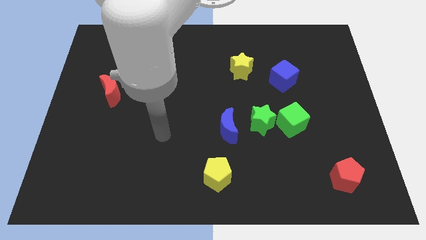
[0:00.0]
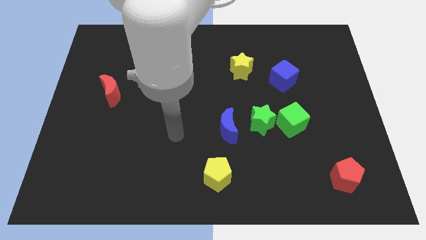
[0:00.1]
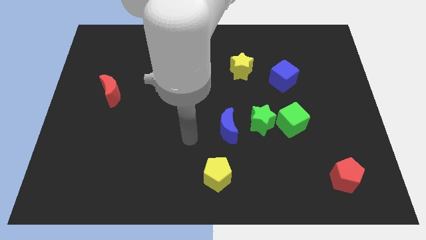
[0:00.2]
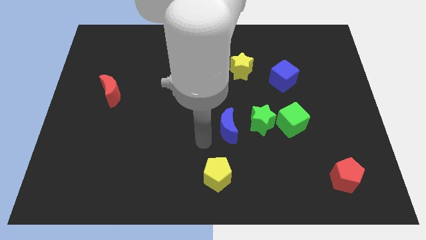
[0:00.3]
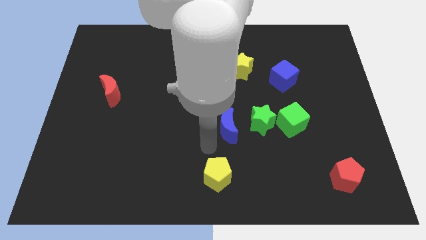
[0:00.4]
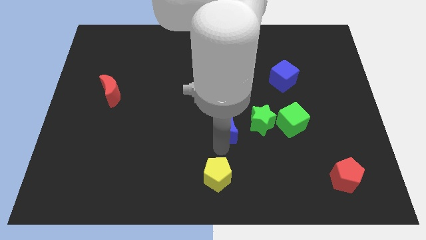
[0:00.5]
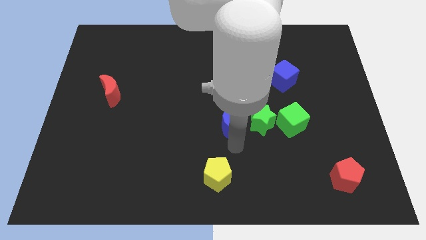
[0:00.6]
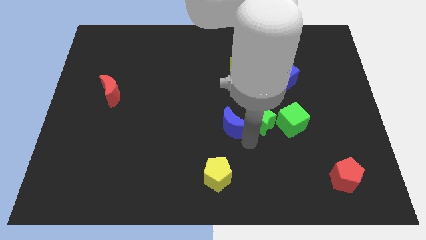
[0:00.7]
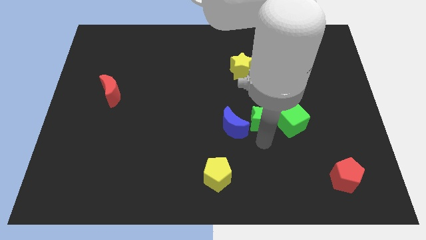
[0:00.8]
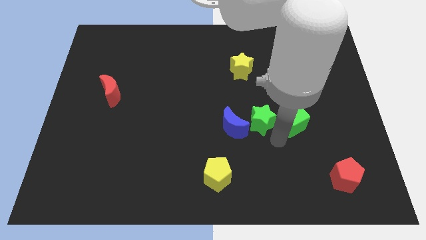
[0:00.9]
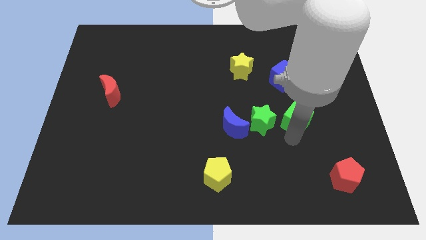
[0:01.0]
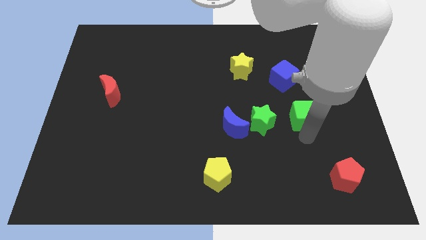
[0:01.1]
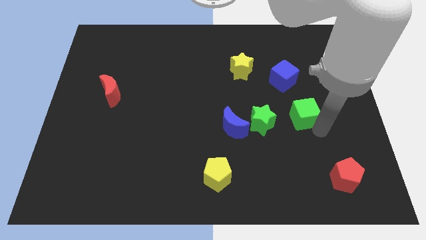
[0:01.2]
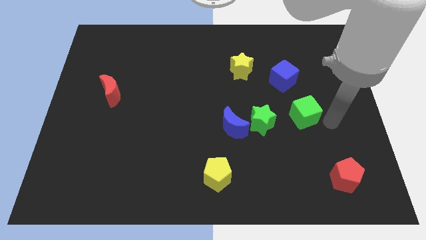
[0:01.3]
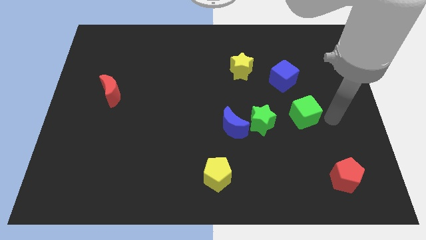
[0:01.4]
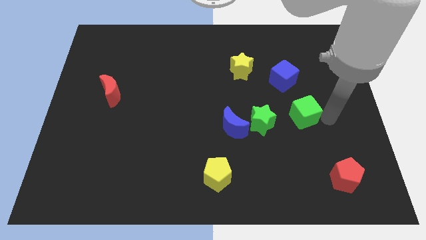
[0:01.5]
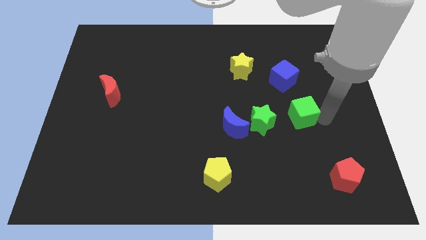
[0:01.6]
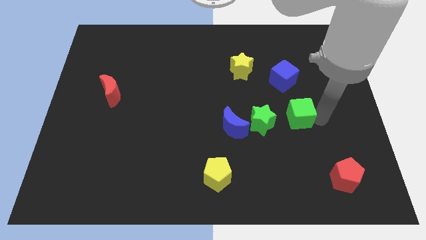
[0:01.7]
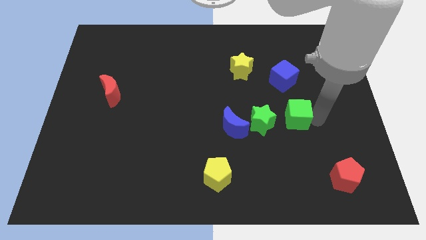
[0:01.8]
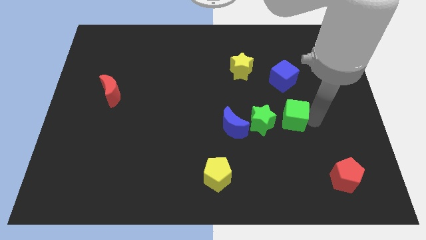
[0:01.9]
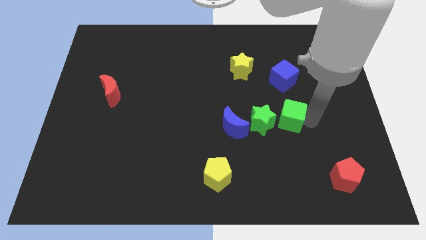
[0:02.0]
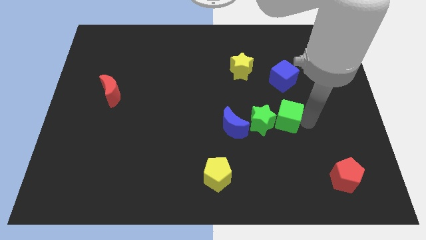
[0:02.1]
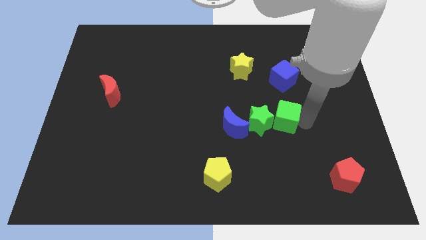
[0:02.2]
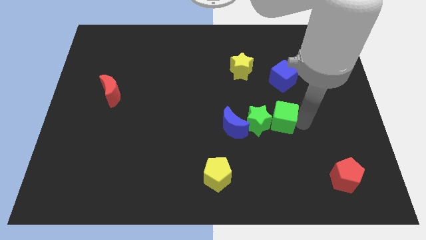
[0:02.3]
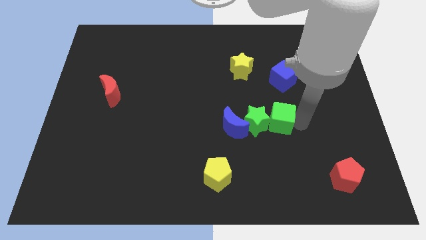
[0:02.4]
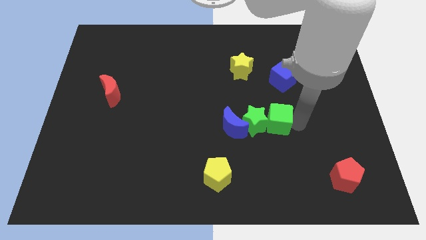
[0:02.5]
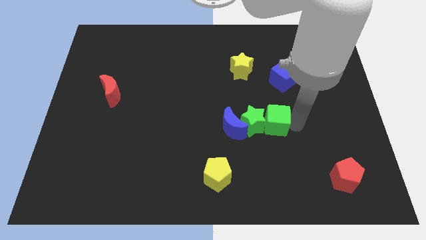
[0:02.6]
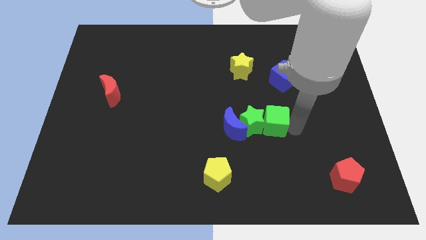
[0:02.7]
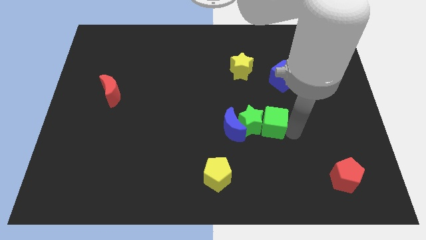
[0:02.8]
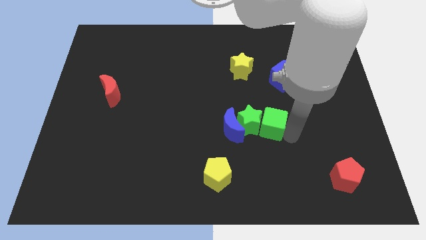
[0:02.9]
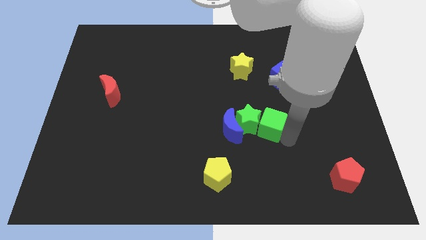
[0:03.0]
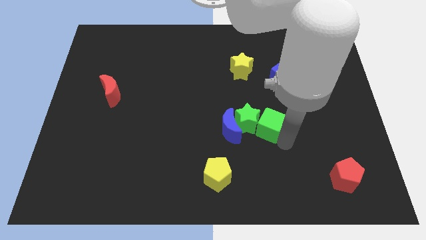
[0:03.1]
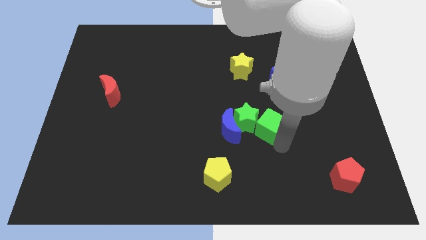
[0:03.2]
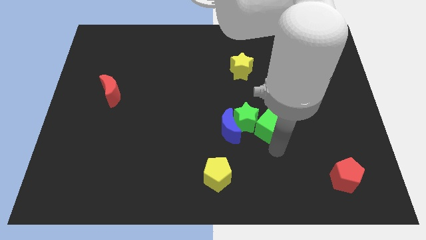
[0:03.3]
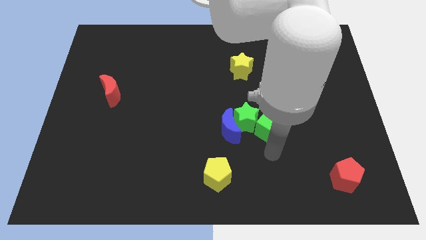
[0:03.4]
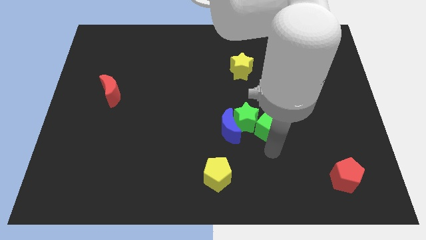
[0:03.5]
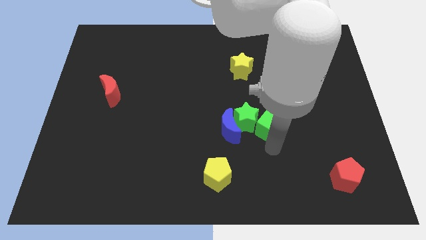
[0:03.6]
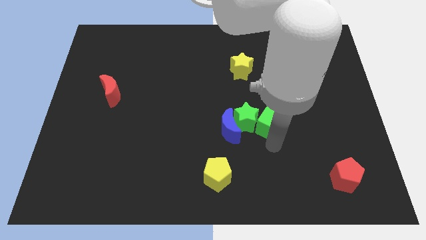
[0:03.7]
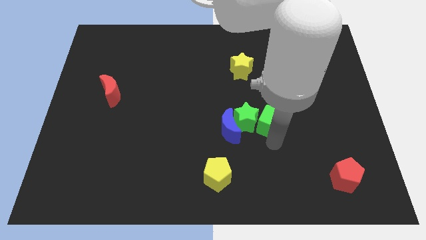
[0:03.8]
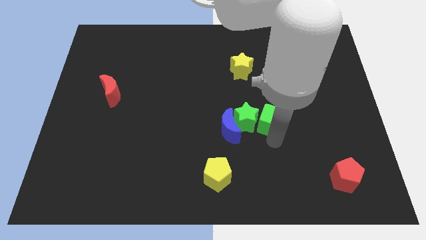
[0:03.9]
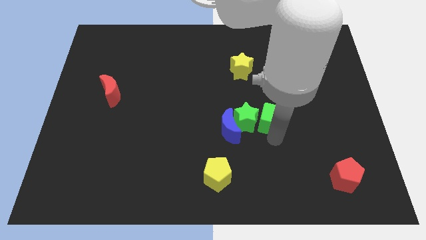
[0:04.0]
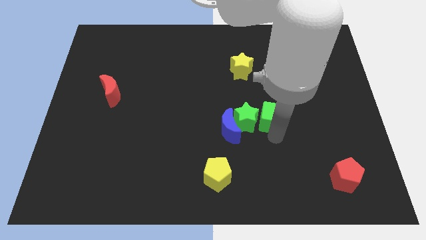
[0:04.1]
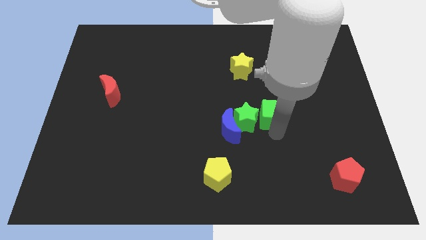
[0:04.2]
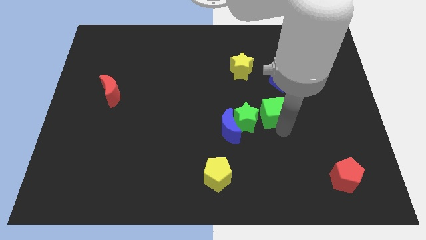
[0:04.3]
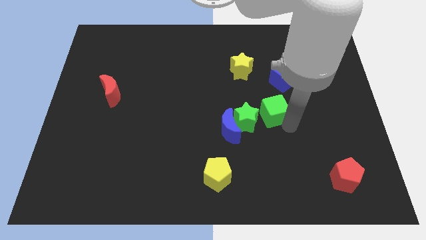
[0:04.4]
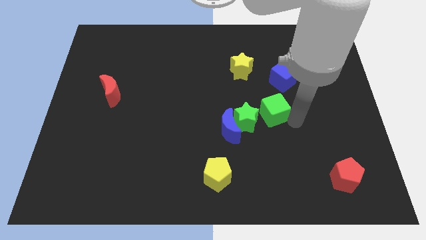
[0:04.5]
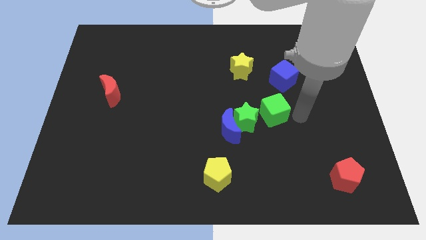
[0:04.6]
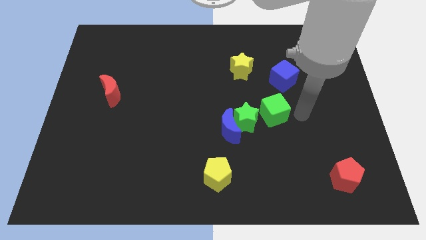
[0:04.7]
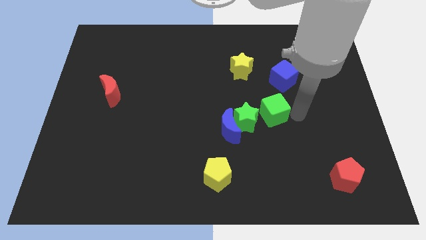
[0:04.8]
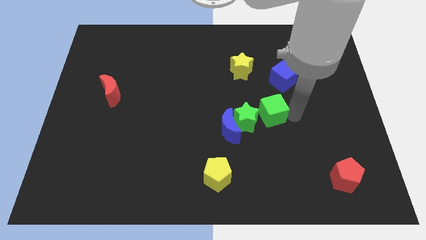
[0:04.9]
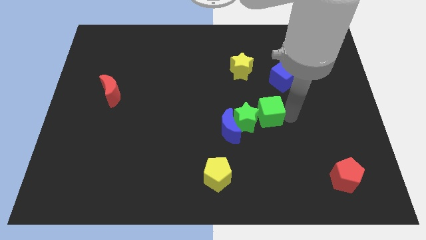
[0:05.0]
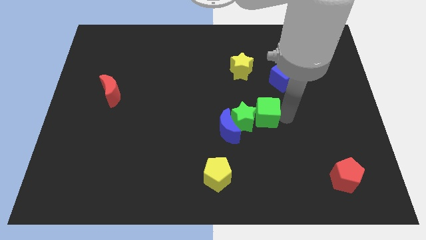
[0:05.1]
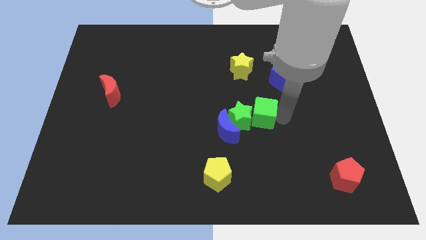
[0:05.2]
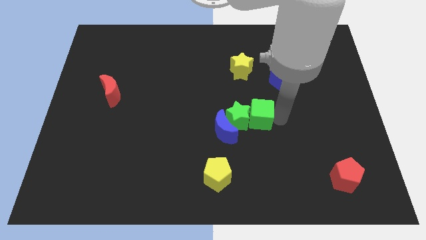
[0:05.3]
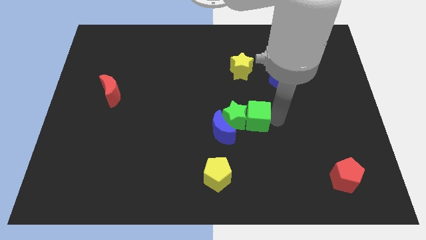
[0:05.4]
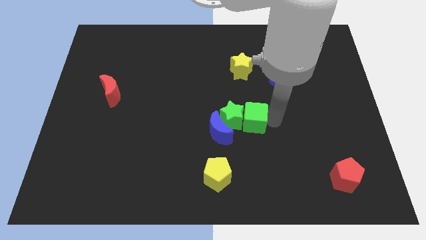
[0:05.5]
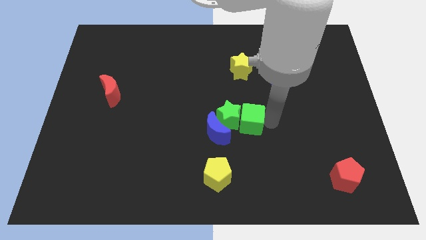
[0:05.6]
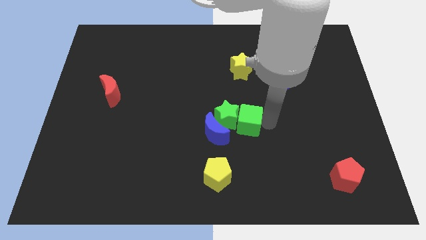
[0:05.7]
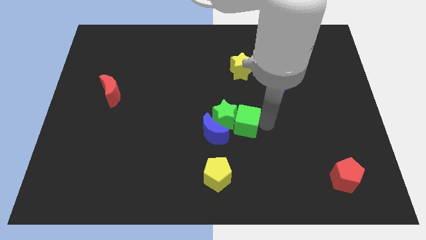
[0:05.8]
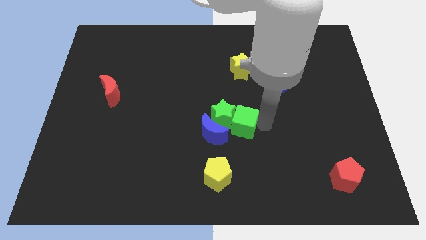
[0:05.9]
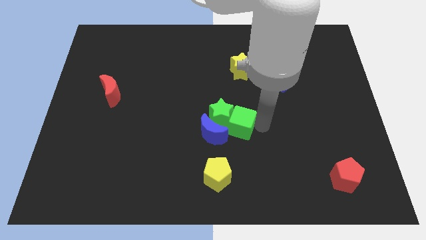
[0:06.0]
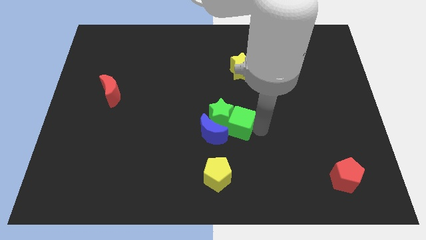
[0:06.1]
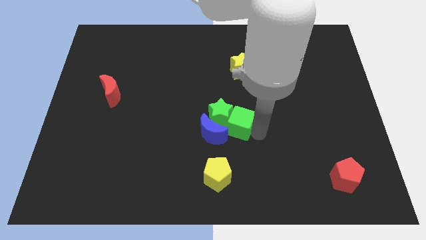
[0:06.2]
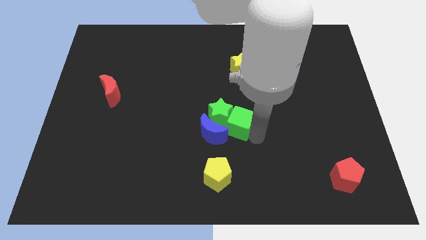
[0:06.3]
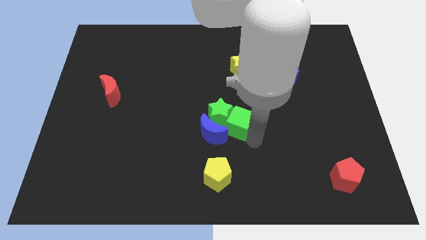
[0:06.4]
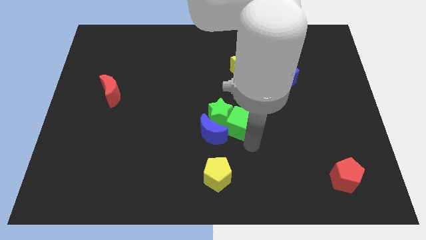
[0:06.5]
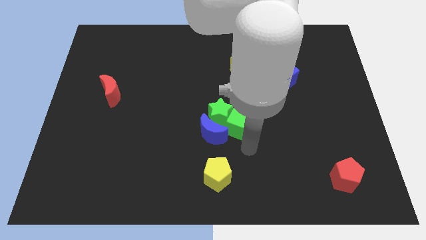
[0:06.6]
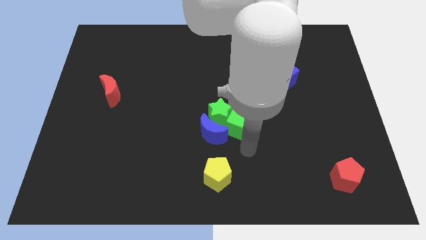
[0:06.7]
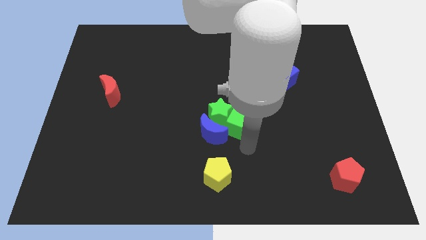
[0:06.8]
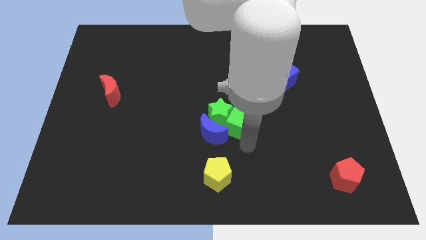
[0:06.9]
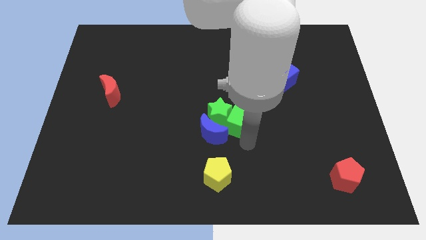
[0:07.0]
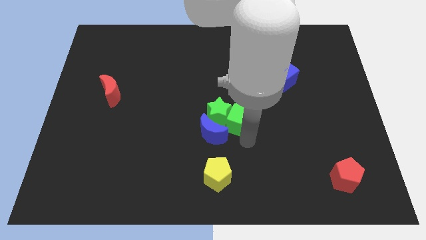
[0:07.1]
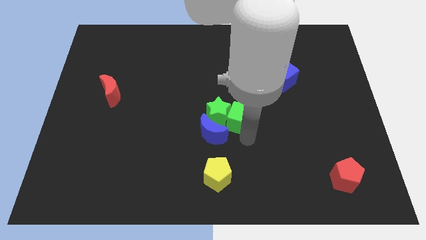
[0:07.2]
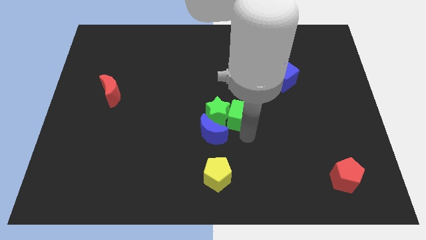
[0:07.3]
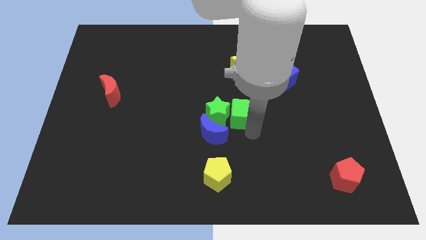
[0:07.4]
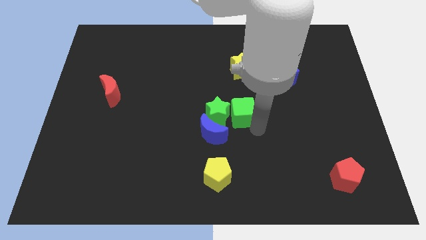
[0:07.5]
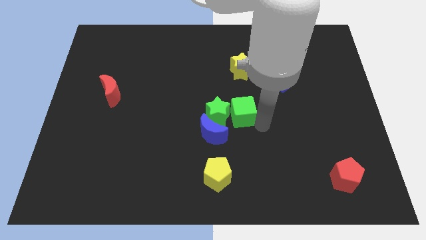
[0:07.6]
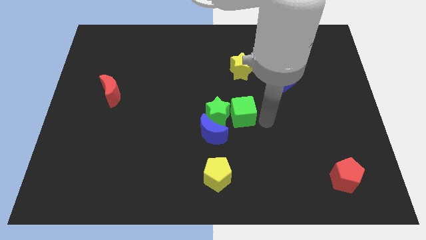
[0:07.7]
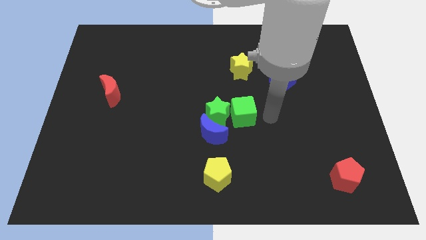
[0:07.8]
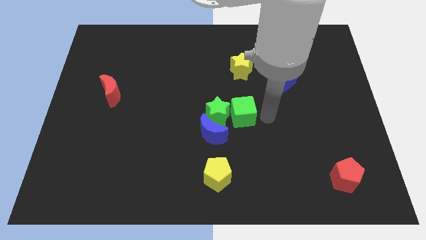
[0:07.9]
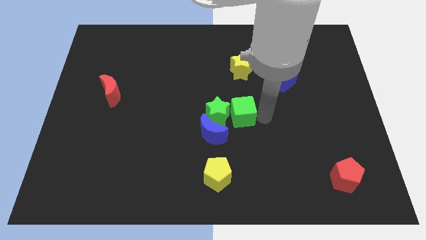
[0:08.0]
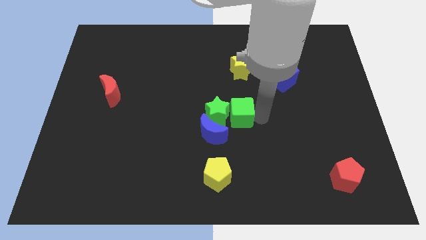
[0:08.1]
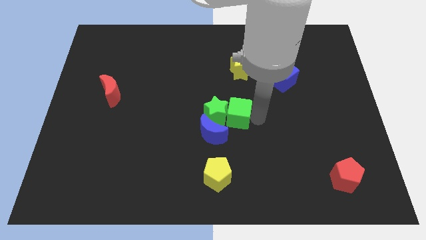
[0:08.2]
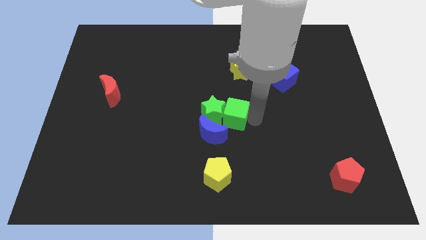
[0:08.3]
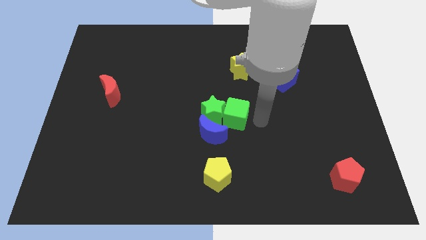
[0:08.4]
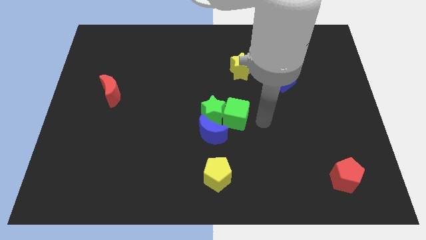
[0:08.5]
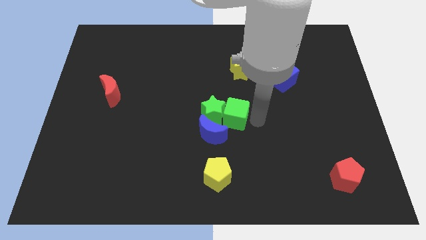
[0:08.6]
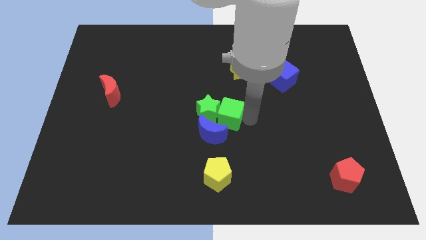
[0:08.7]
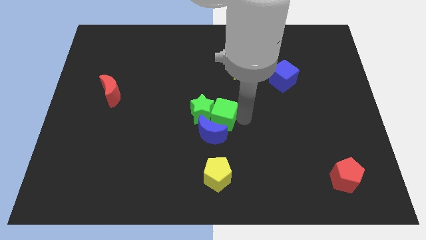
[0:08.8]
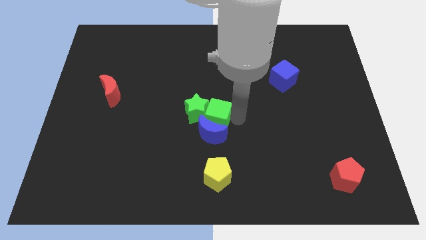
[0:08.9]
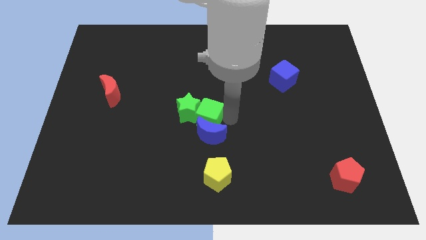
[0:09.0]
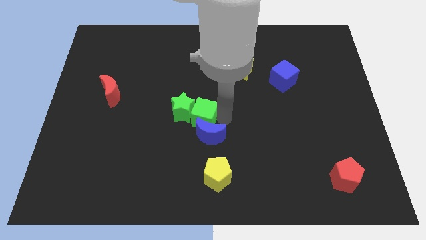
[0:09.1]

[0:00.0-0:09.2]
move the green cube to the left
